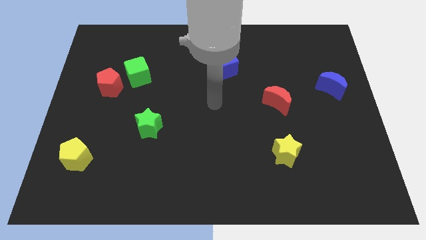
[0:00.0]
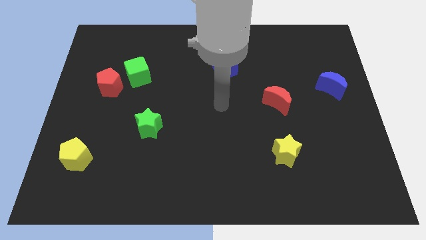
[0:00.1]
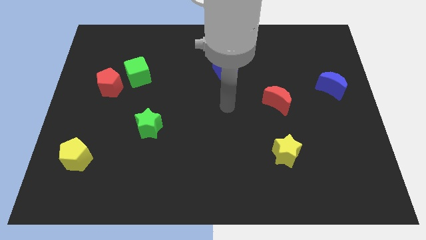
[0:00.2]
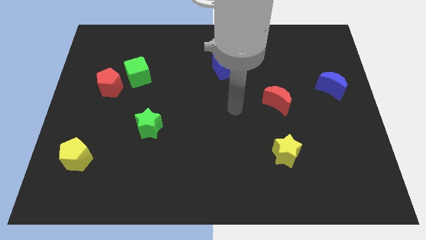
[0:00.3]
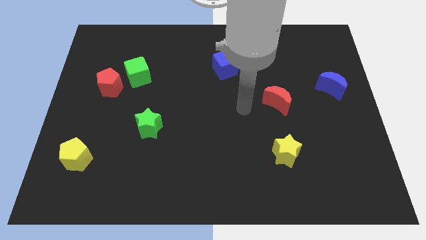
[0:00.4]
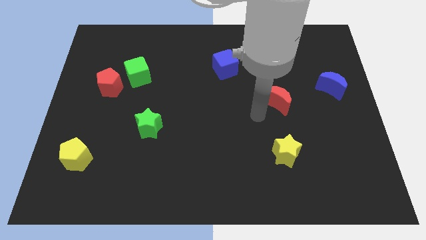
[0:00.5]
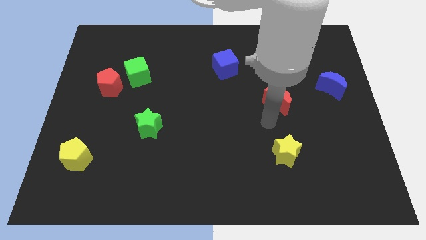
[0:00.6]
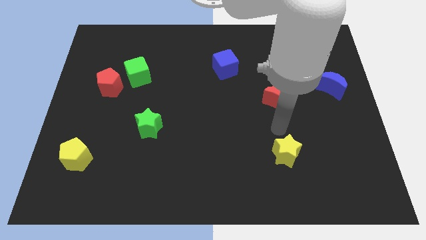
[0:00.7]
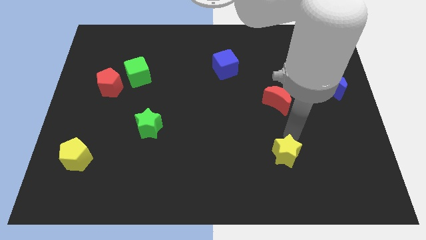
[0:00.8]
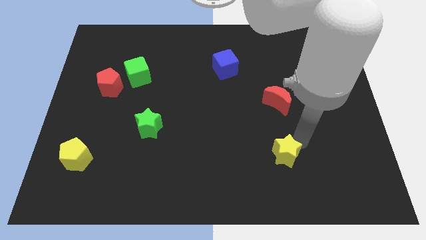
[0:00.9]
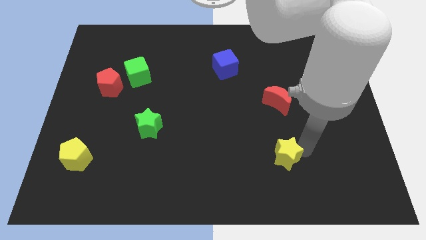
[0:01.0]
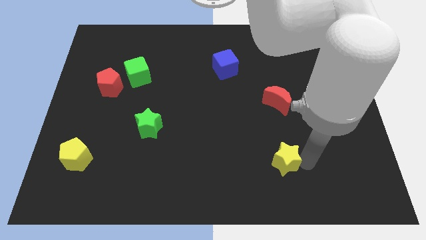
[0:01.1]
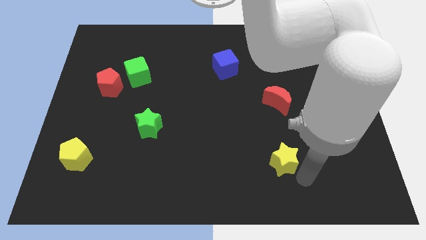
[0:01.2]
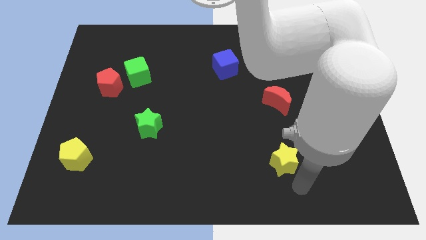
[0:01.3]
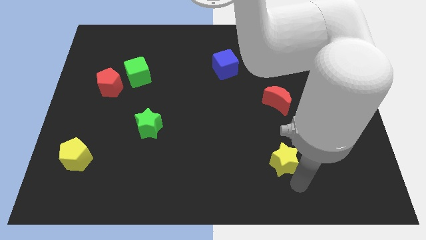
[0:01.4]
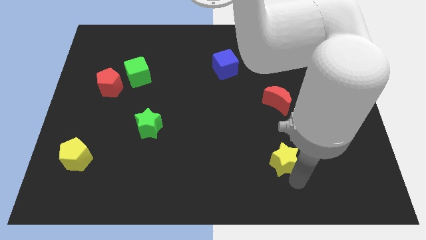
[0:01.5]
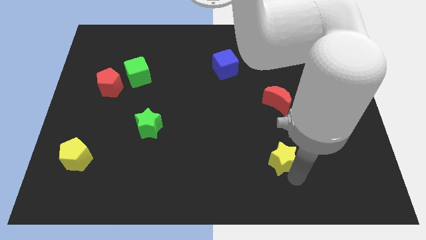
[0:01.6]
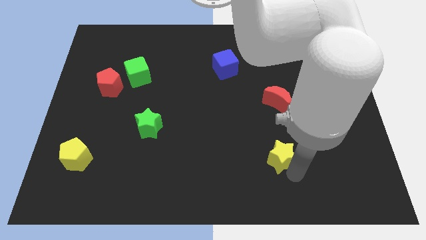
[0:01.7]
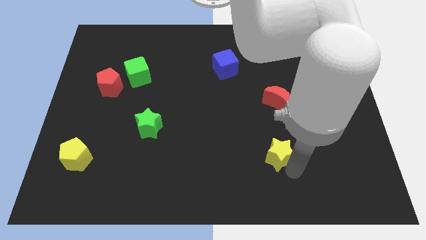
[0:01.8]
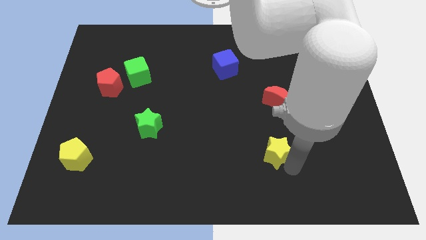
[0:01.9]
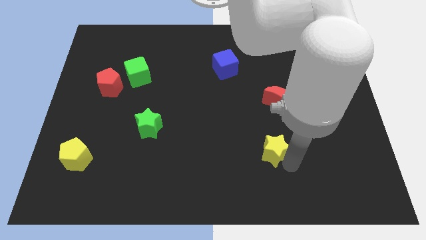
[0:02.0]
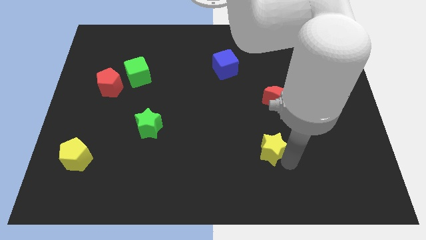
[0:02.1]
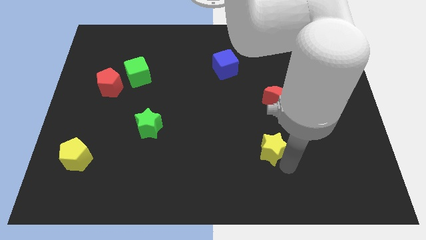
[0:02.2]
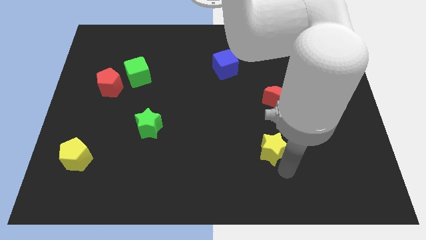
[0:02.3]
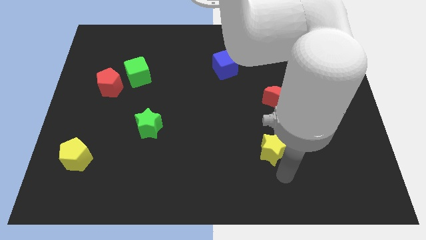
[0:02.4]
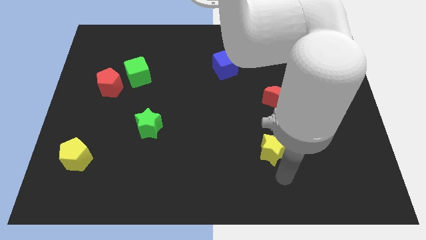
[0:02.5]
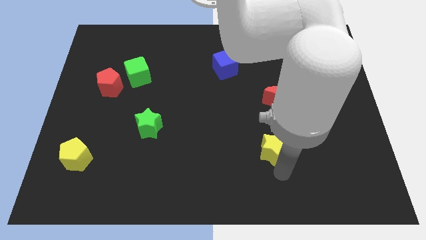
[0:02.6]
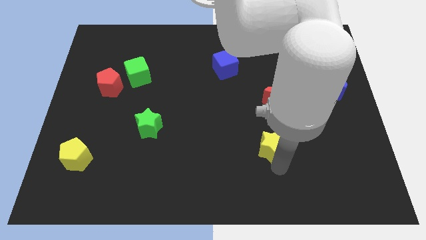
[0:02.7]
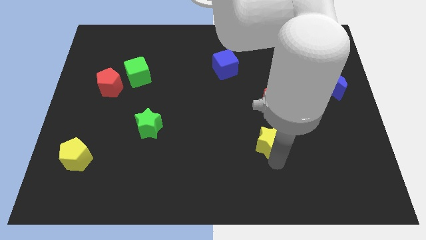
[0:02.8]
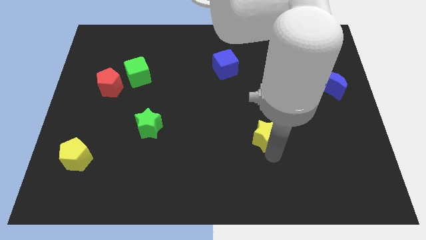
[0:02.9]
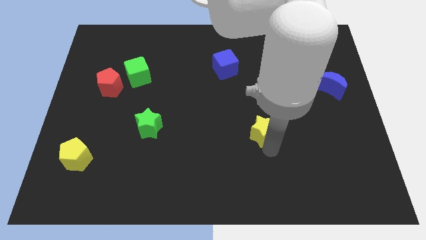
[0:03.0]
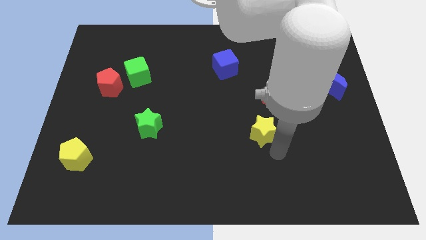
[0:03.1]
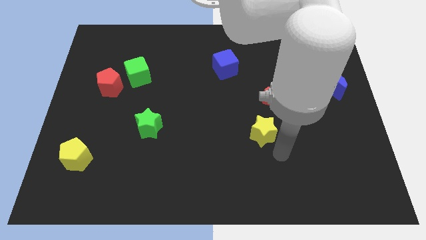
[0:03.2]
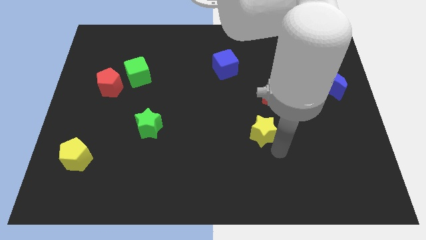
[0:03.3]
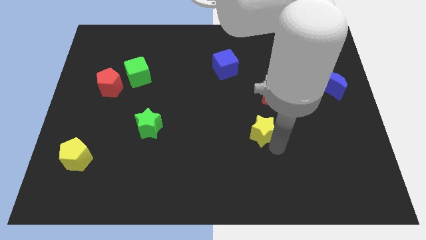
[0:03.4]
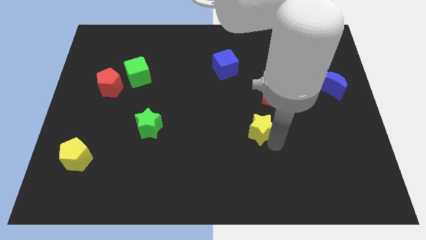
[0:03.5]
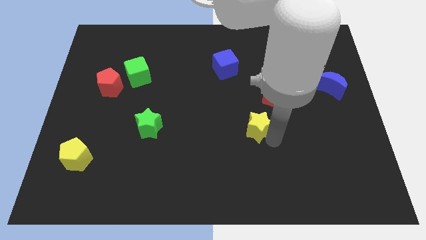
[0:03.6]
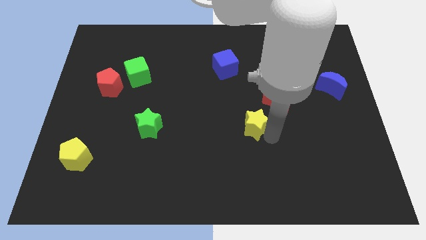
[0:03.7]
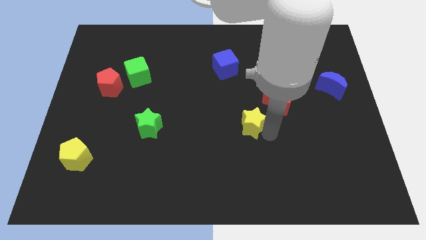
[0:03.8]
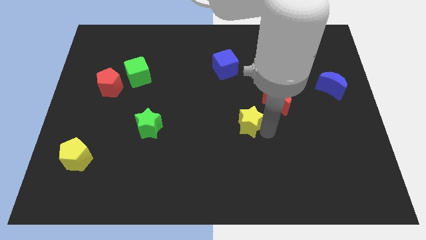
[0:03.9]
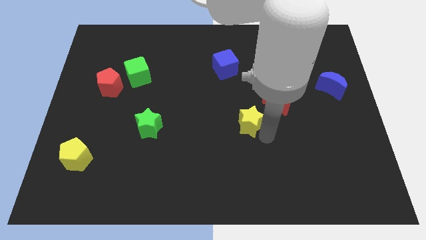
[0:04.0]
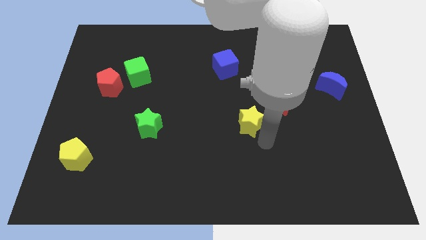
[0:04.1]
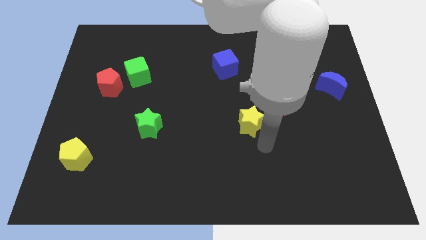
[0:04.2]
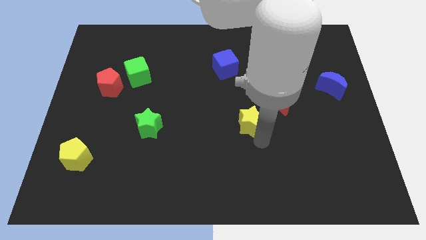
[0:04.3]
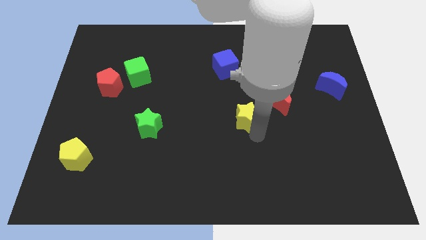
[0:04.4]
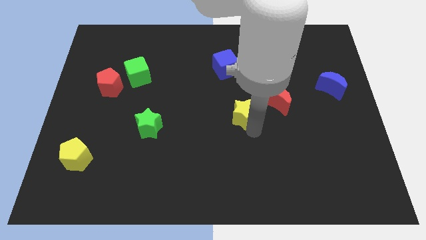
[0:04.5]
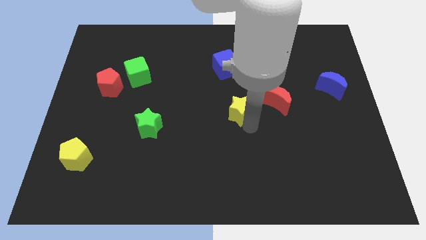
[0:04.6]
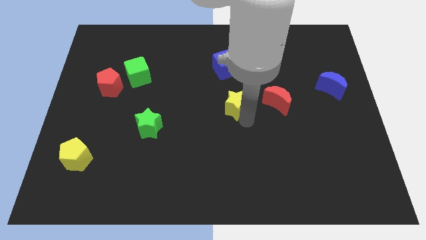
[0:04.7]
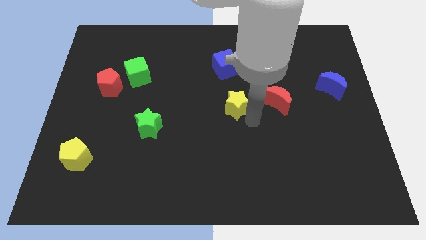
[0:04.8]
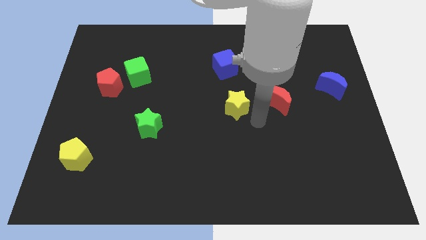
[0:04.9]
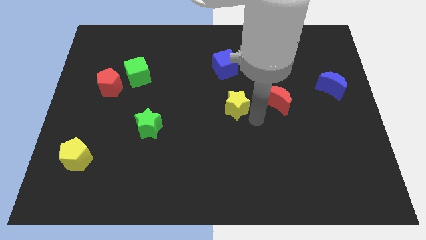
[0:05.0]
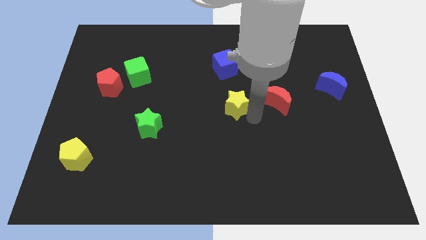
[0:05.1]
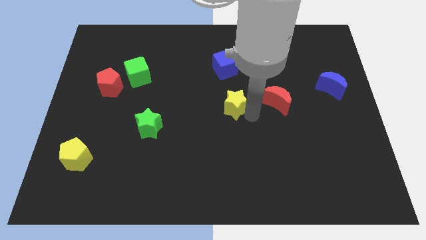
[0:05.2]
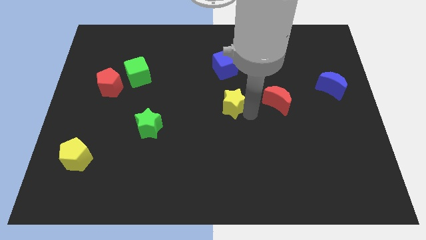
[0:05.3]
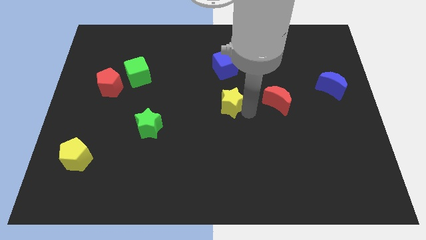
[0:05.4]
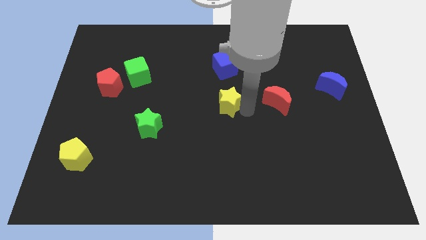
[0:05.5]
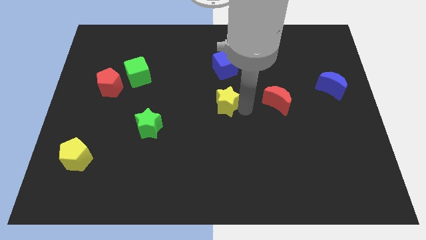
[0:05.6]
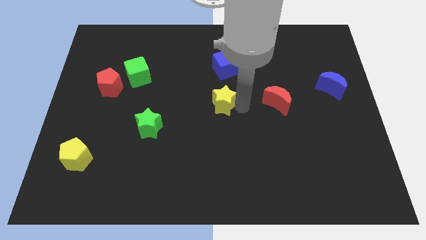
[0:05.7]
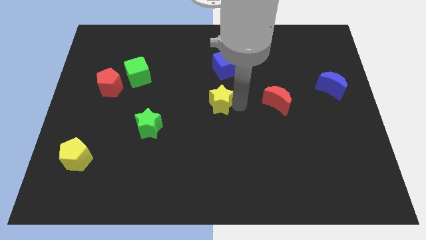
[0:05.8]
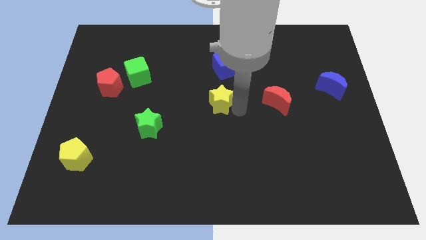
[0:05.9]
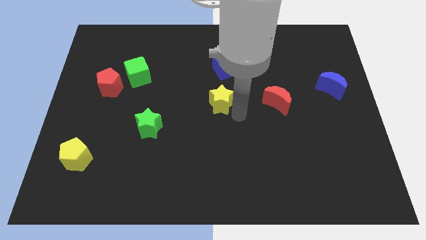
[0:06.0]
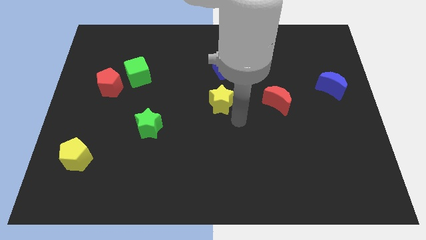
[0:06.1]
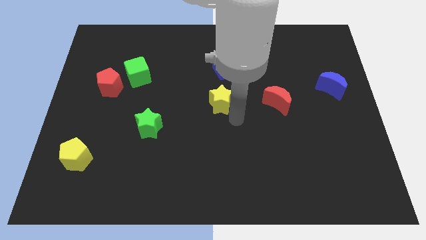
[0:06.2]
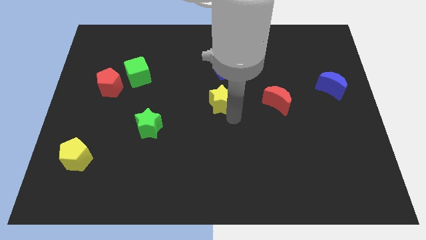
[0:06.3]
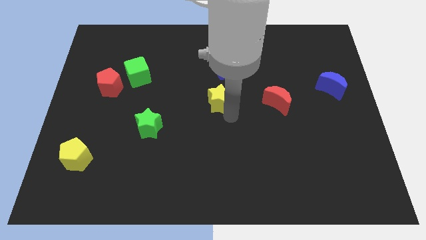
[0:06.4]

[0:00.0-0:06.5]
slide the yellow star up and left diagonally

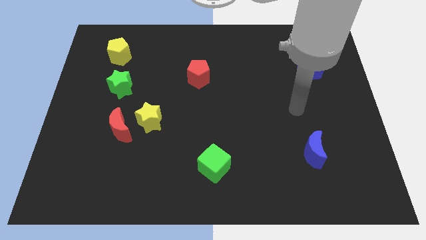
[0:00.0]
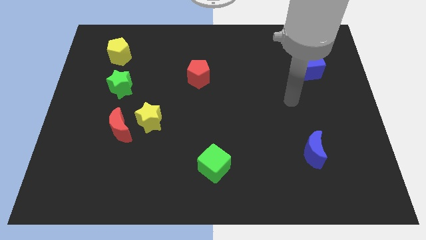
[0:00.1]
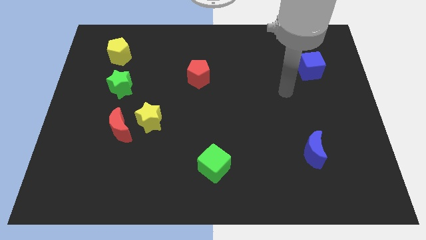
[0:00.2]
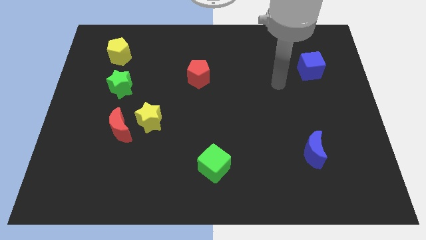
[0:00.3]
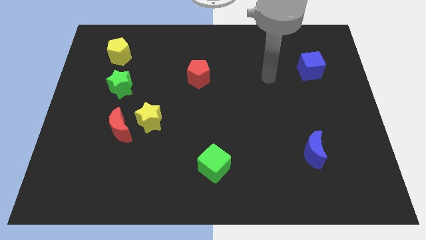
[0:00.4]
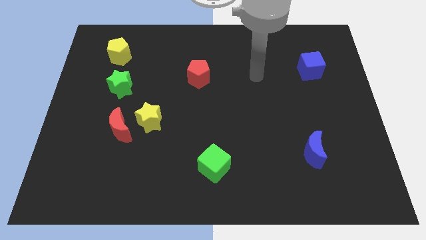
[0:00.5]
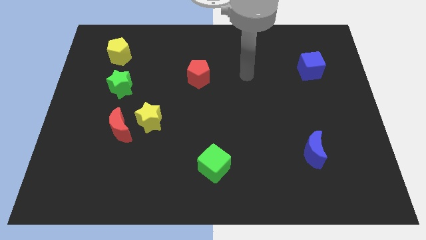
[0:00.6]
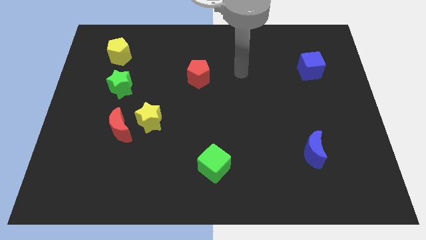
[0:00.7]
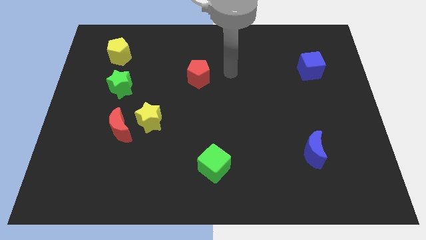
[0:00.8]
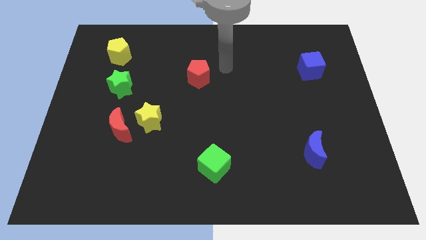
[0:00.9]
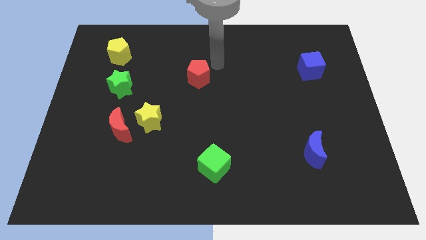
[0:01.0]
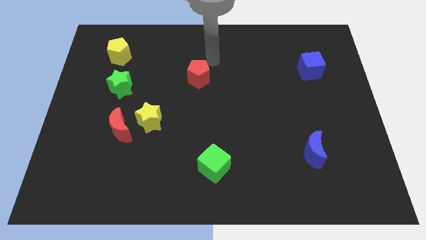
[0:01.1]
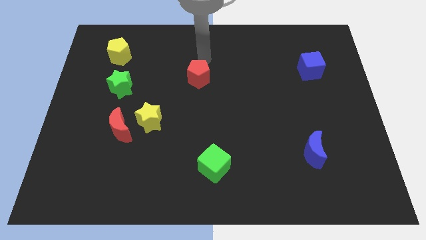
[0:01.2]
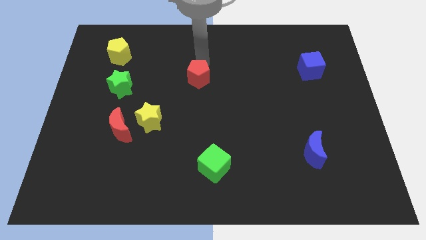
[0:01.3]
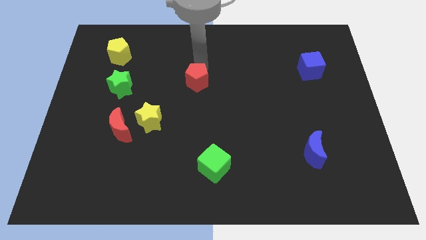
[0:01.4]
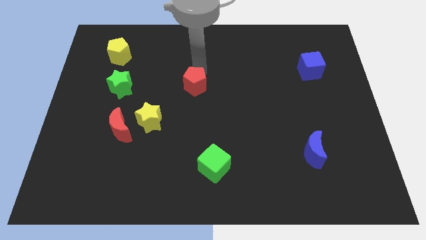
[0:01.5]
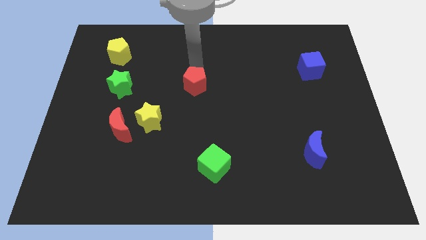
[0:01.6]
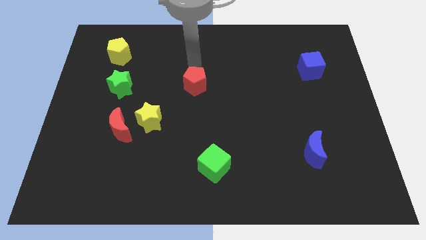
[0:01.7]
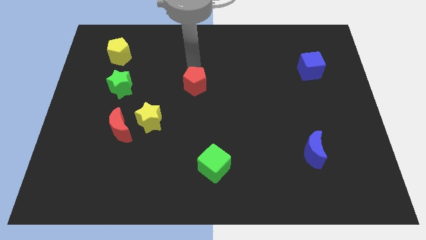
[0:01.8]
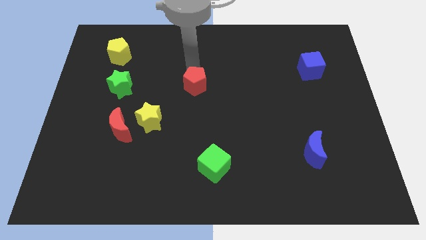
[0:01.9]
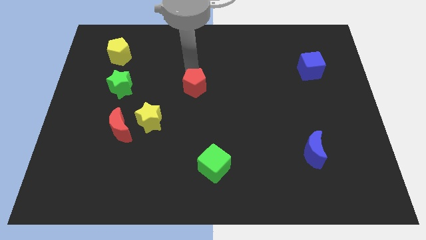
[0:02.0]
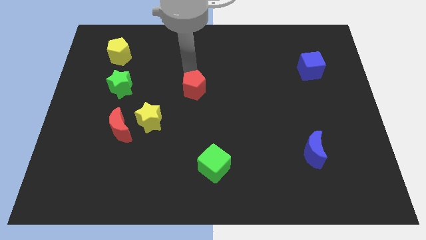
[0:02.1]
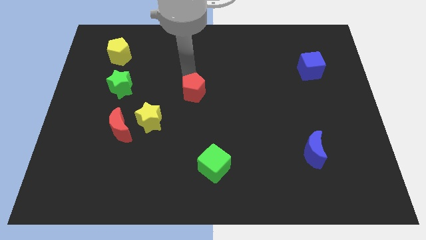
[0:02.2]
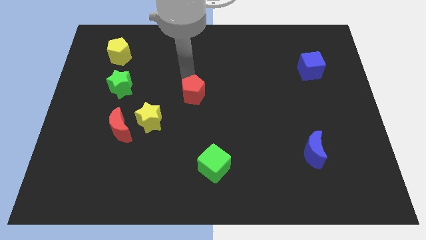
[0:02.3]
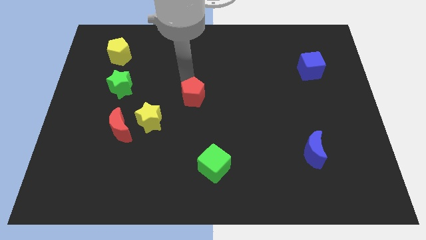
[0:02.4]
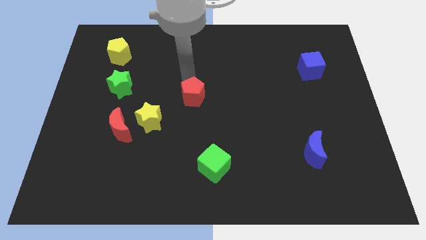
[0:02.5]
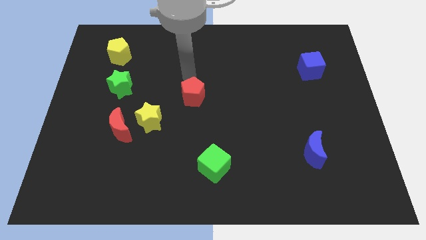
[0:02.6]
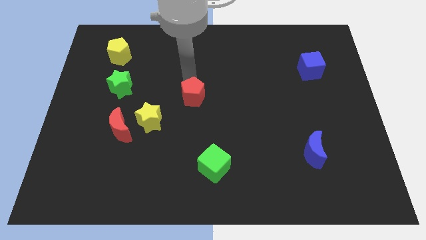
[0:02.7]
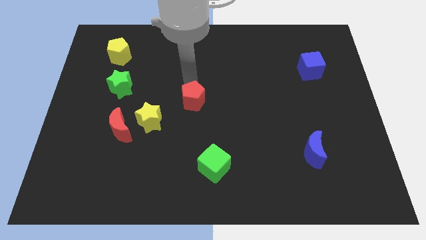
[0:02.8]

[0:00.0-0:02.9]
move the red pentagon down a bit
